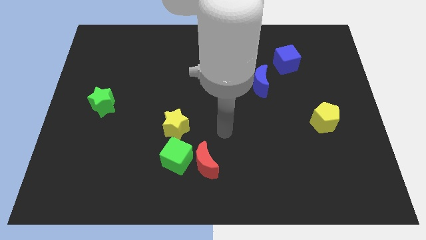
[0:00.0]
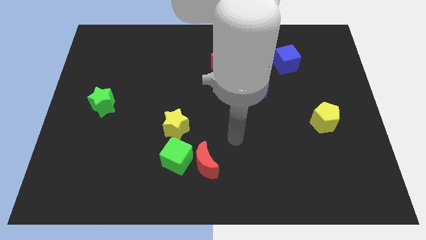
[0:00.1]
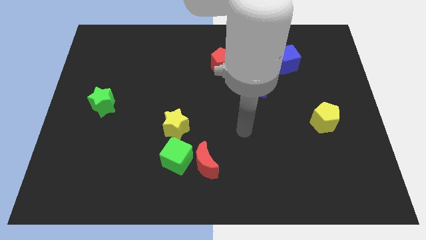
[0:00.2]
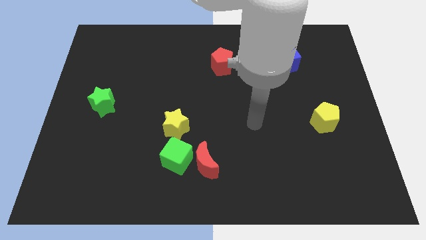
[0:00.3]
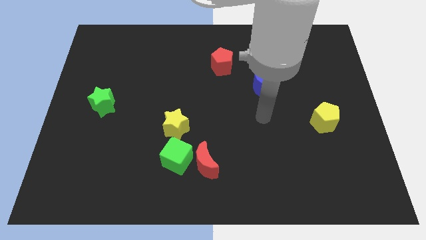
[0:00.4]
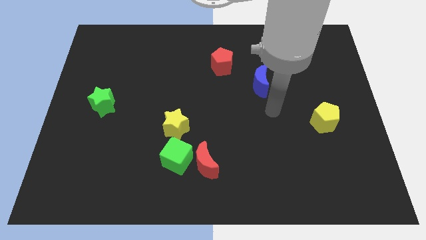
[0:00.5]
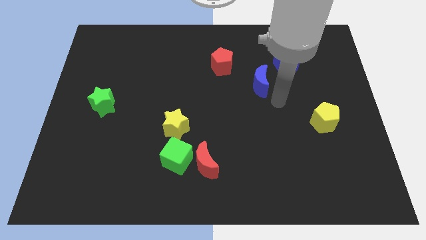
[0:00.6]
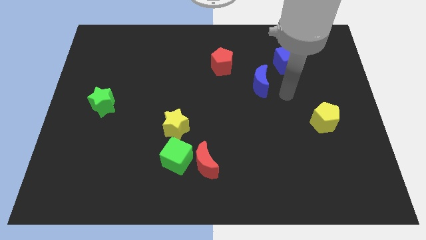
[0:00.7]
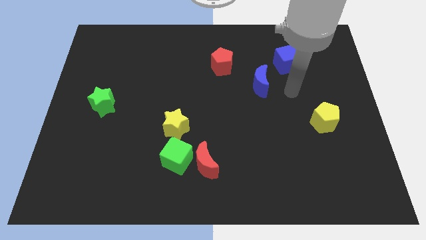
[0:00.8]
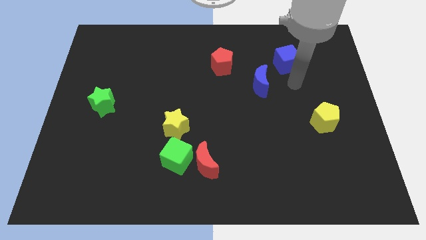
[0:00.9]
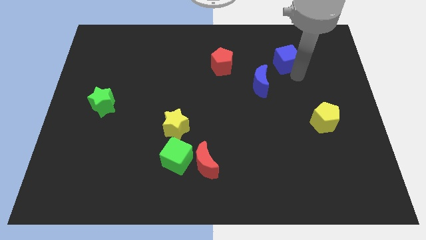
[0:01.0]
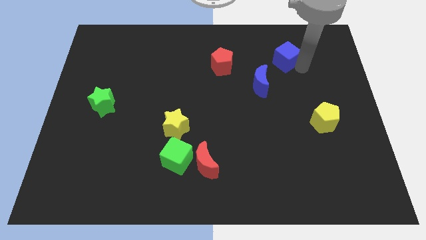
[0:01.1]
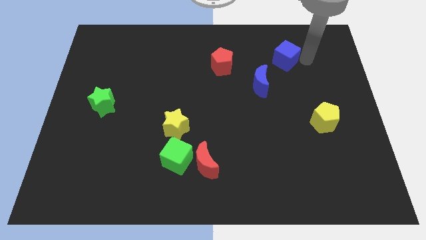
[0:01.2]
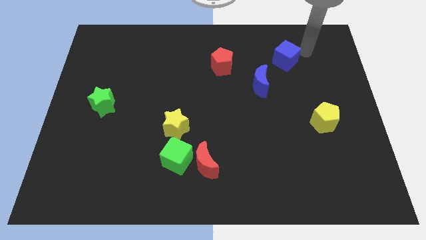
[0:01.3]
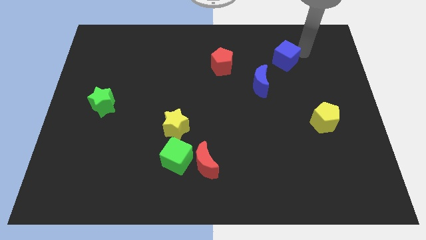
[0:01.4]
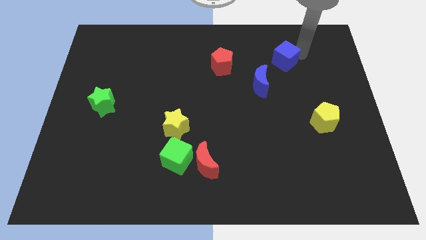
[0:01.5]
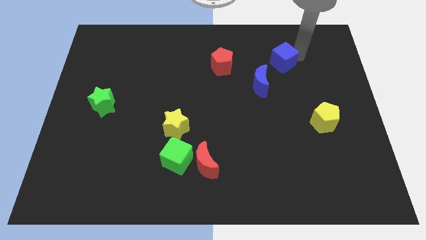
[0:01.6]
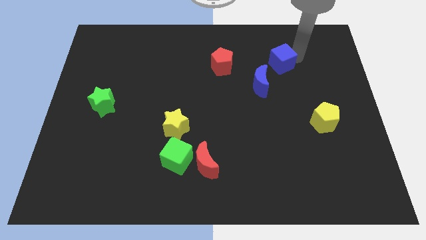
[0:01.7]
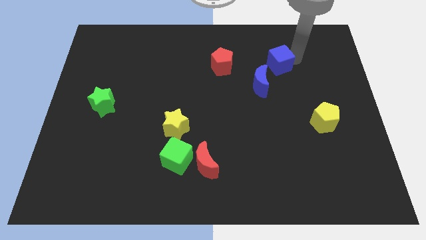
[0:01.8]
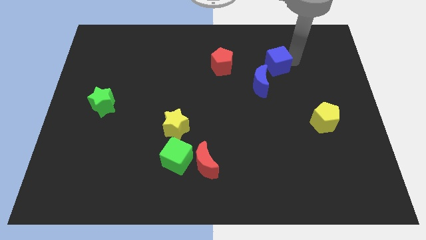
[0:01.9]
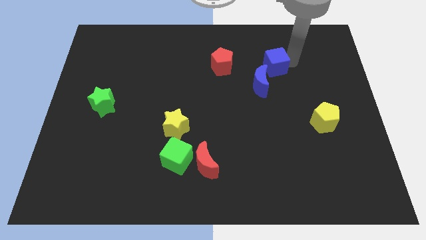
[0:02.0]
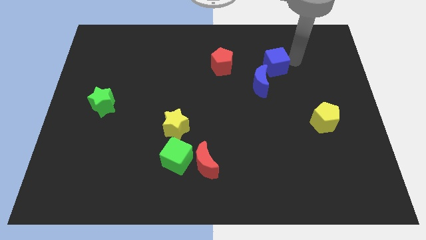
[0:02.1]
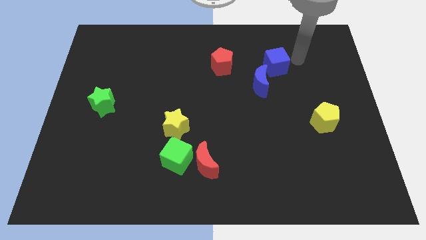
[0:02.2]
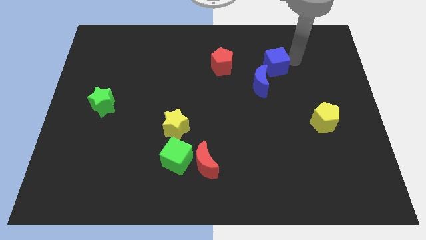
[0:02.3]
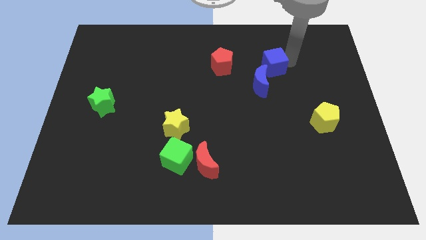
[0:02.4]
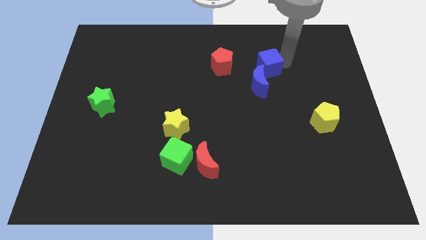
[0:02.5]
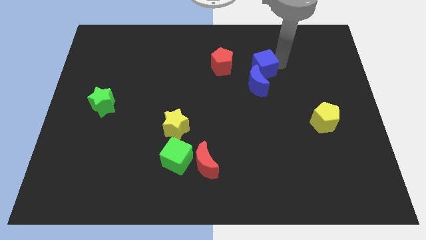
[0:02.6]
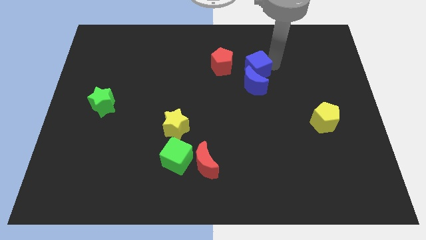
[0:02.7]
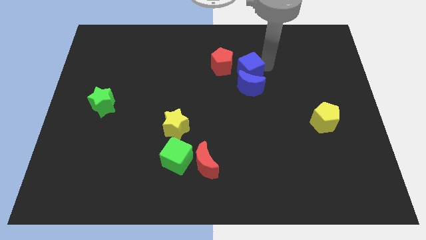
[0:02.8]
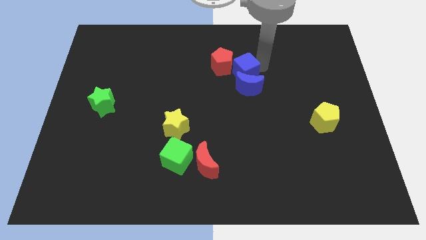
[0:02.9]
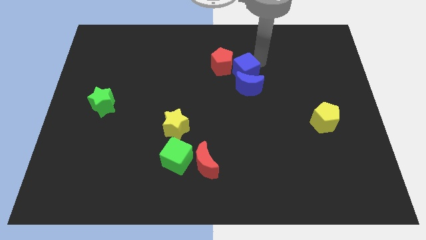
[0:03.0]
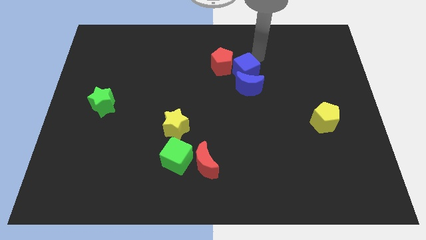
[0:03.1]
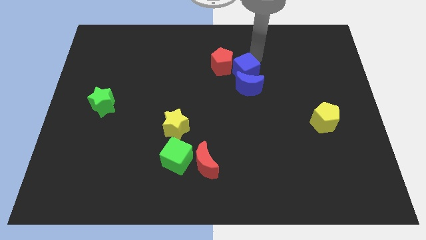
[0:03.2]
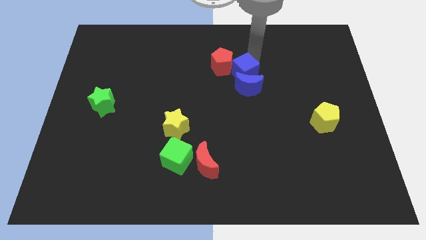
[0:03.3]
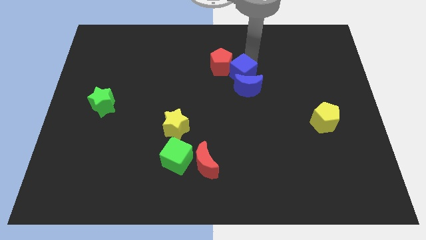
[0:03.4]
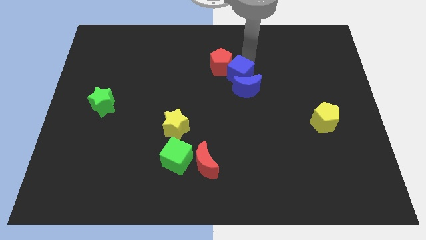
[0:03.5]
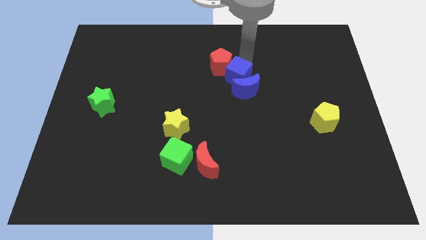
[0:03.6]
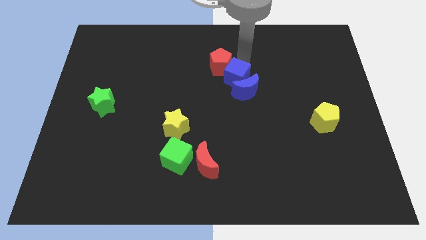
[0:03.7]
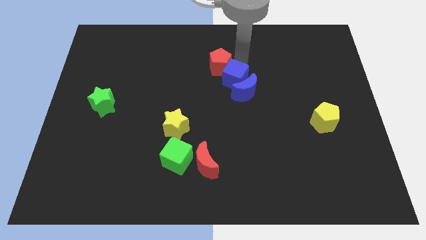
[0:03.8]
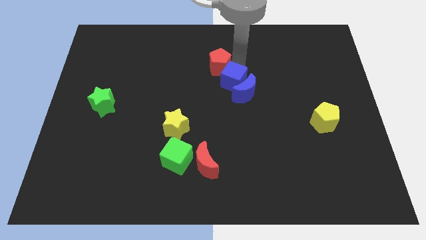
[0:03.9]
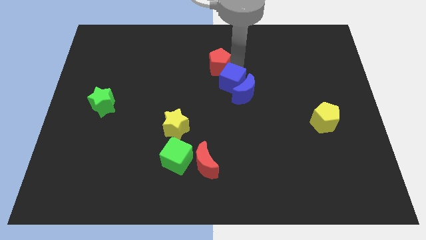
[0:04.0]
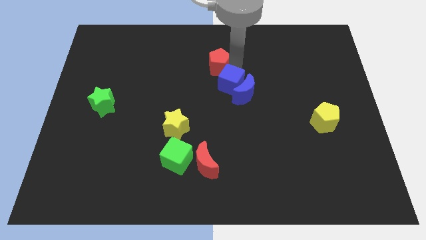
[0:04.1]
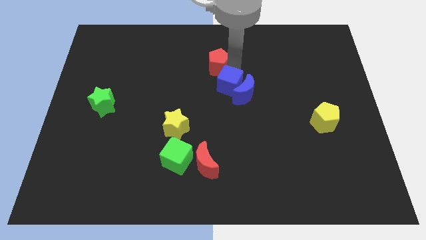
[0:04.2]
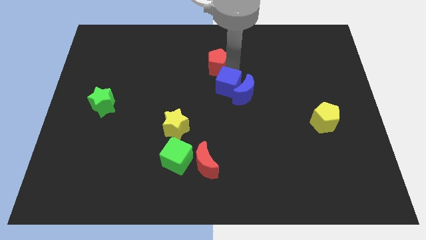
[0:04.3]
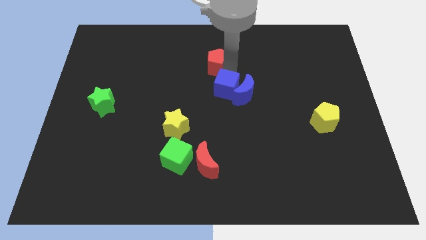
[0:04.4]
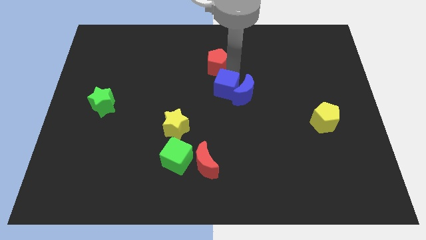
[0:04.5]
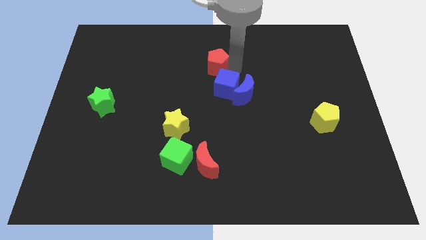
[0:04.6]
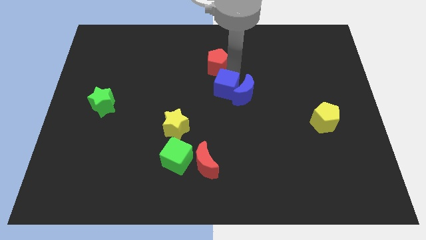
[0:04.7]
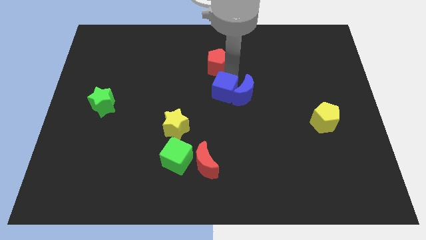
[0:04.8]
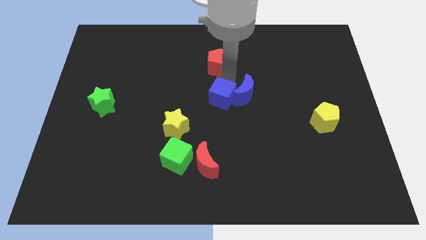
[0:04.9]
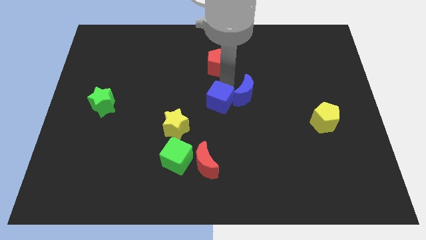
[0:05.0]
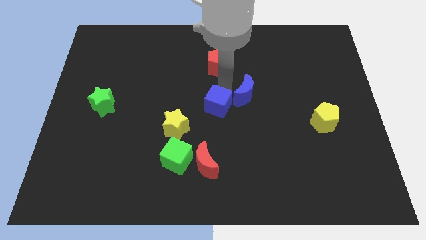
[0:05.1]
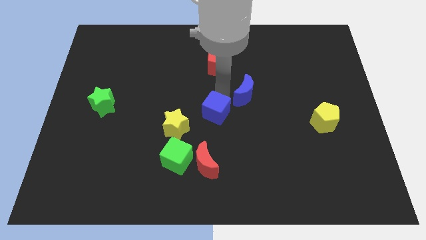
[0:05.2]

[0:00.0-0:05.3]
move the blue cube to the top of the red moon

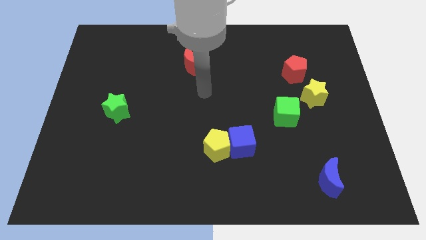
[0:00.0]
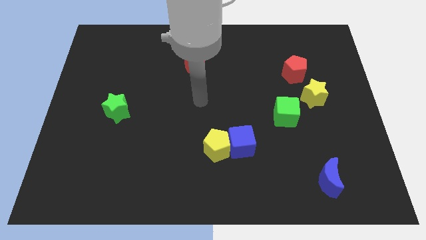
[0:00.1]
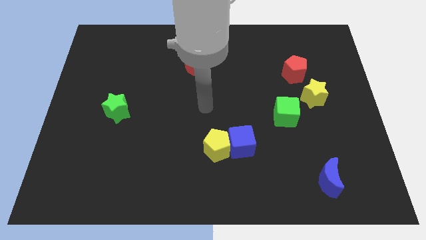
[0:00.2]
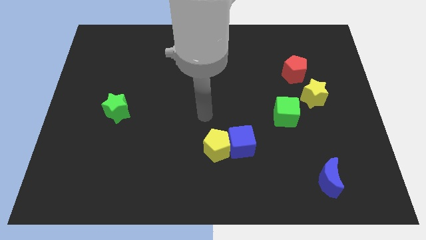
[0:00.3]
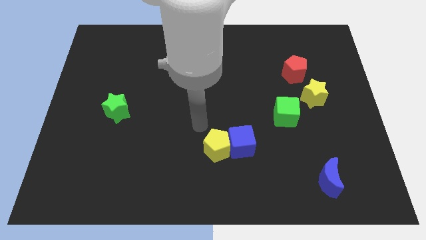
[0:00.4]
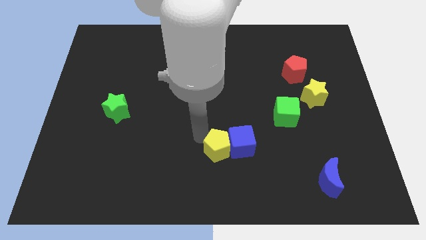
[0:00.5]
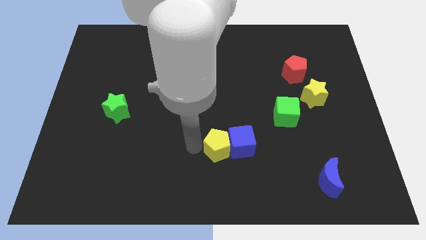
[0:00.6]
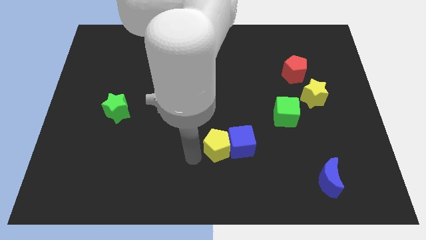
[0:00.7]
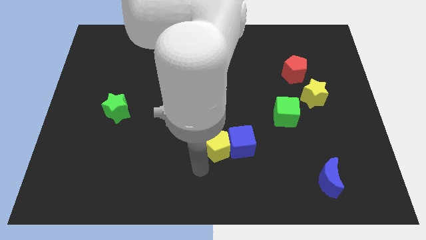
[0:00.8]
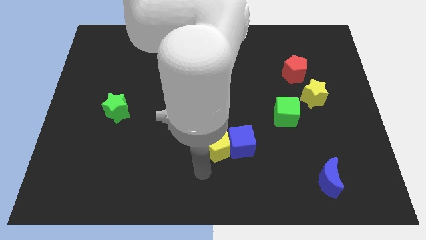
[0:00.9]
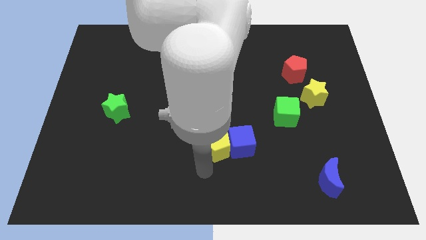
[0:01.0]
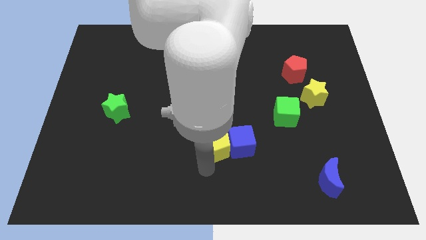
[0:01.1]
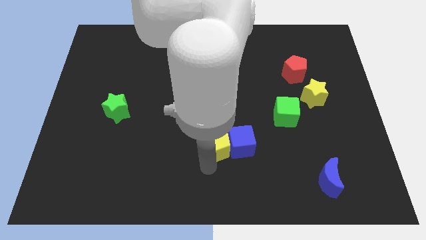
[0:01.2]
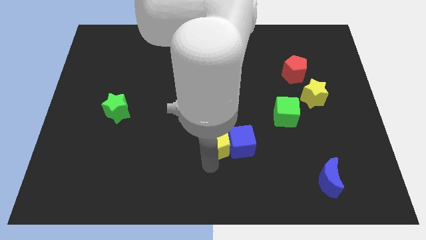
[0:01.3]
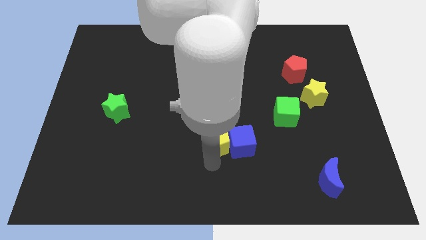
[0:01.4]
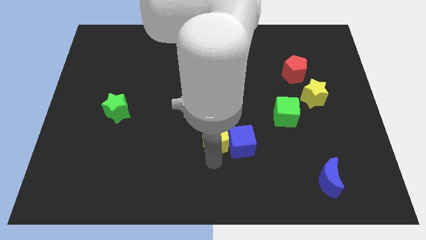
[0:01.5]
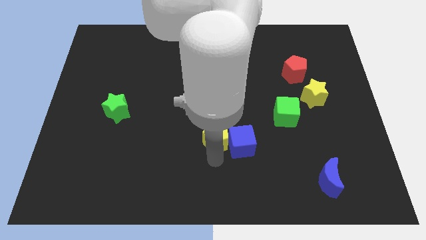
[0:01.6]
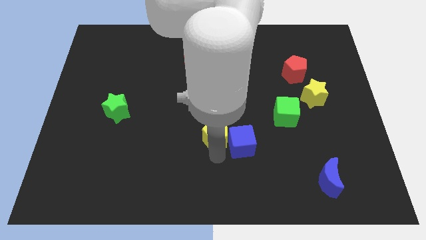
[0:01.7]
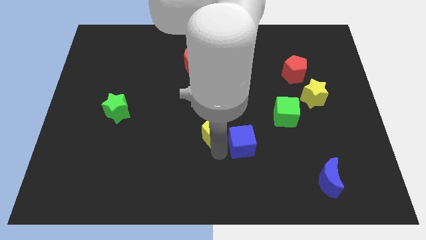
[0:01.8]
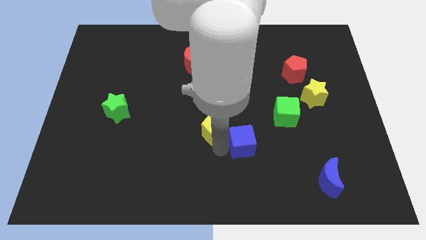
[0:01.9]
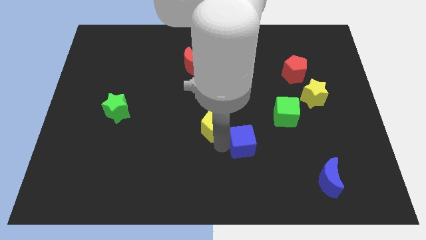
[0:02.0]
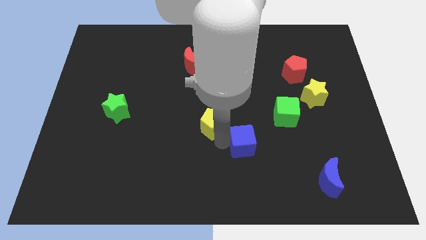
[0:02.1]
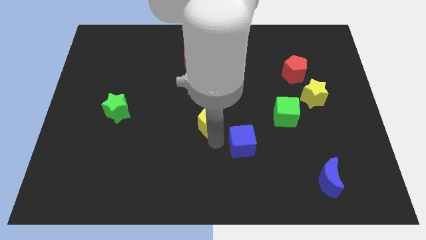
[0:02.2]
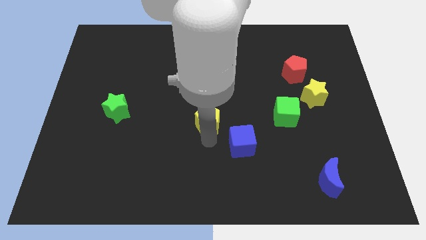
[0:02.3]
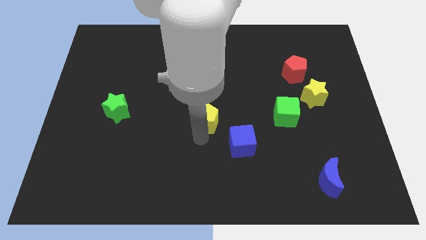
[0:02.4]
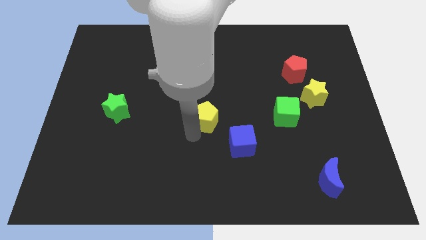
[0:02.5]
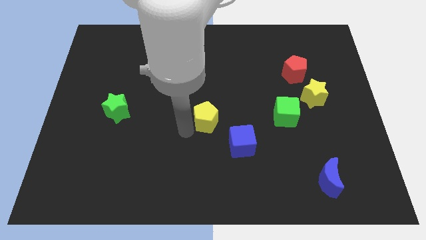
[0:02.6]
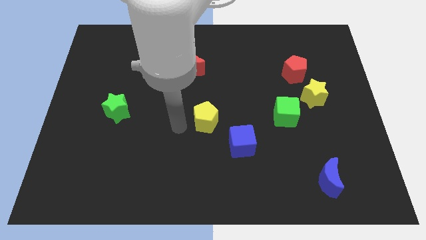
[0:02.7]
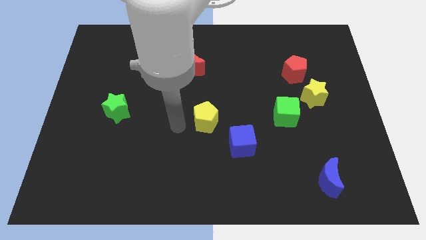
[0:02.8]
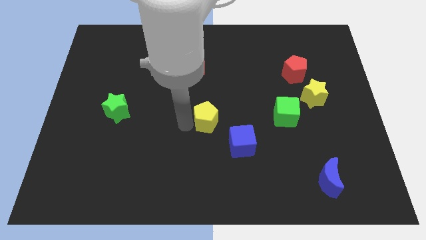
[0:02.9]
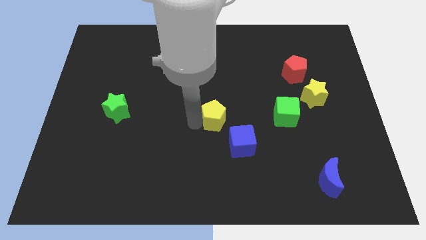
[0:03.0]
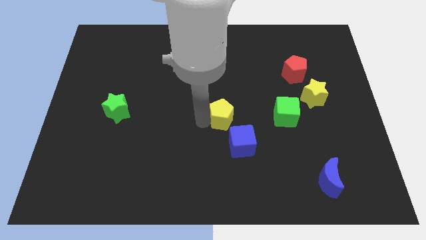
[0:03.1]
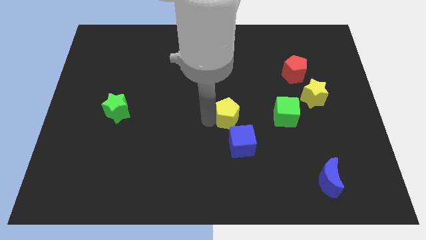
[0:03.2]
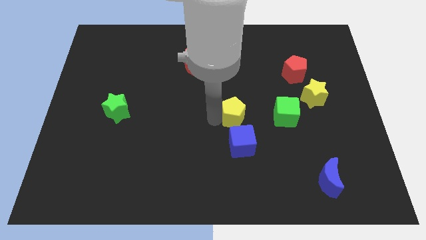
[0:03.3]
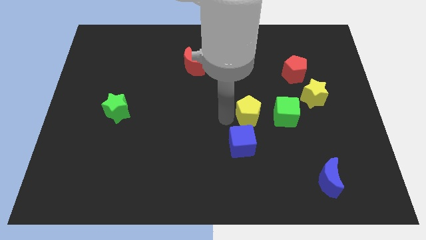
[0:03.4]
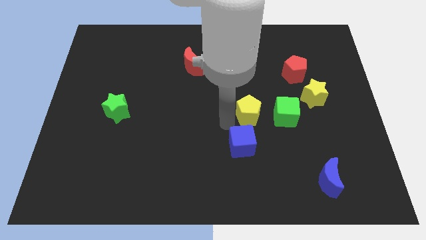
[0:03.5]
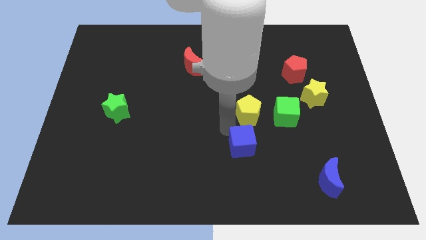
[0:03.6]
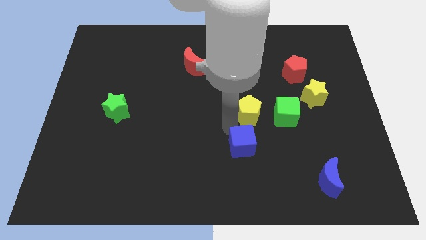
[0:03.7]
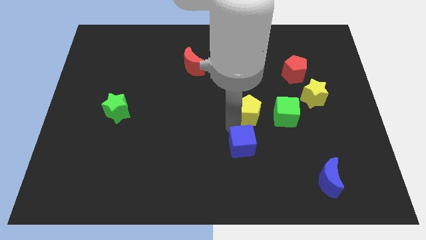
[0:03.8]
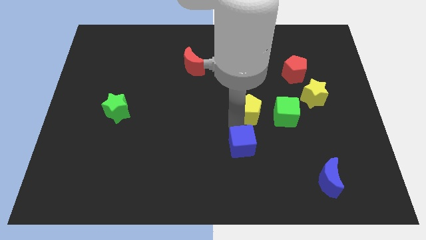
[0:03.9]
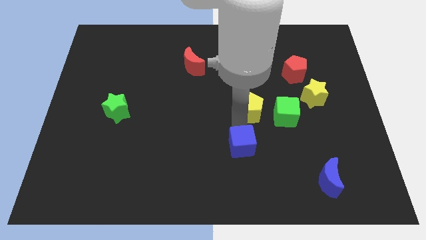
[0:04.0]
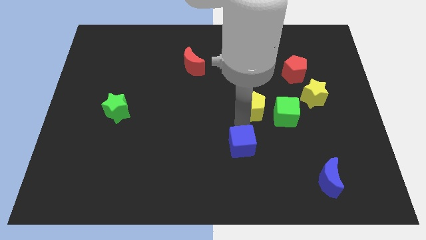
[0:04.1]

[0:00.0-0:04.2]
push the yellow pentagon left of the yellow star
